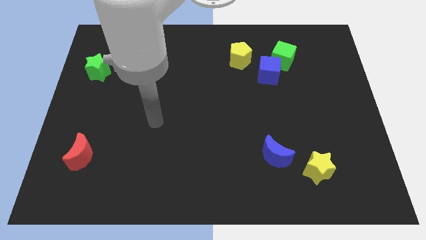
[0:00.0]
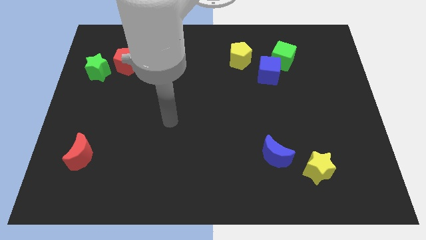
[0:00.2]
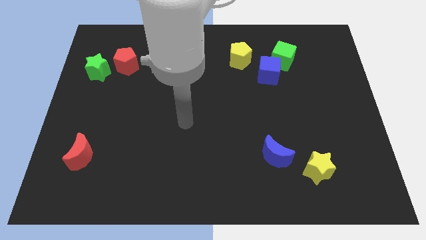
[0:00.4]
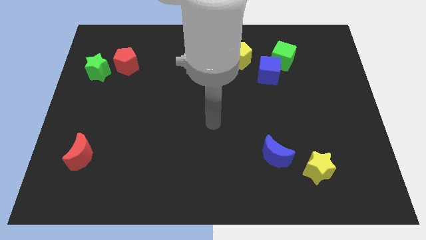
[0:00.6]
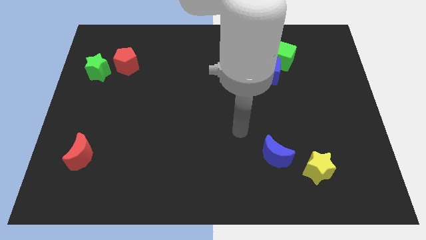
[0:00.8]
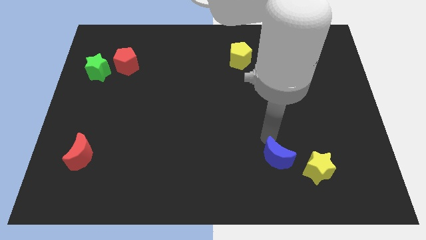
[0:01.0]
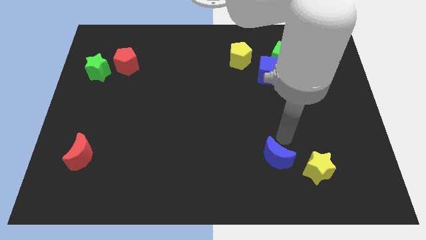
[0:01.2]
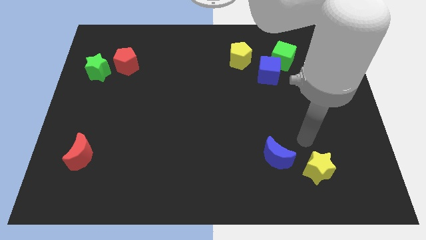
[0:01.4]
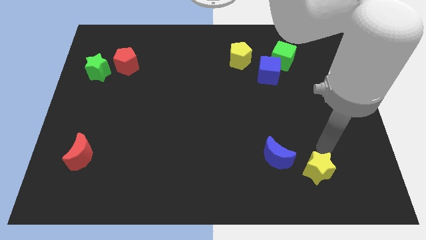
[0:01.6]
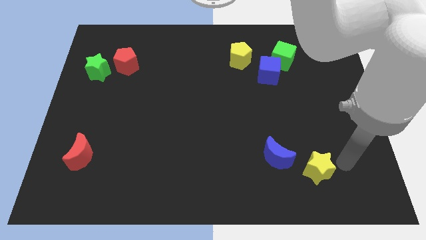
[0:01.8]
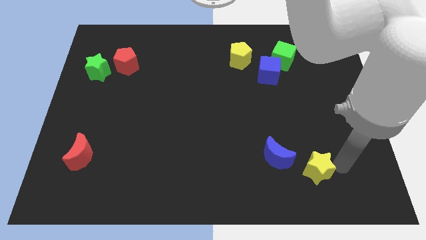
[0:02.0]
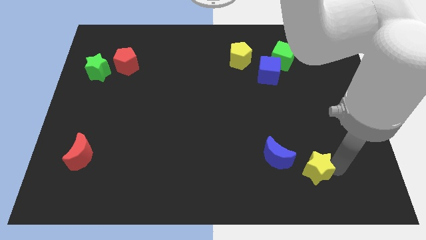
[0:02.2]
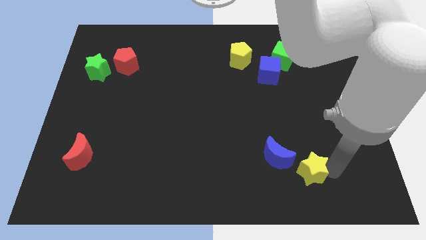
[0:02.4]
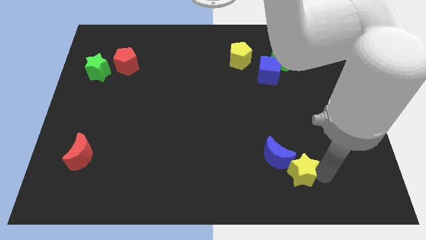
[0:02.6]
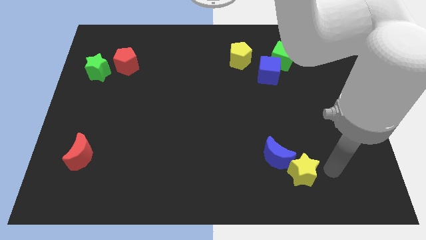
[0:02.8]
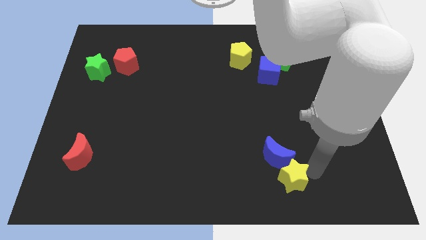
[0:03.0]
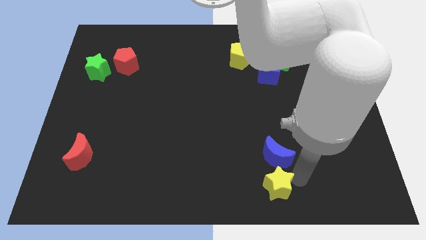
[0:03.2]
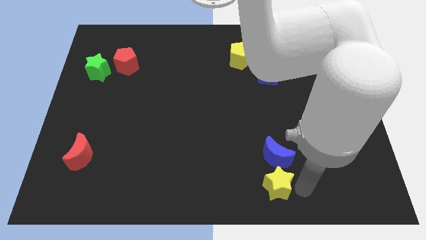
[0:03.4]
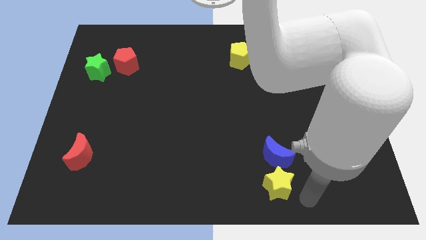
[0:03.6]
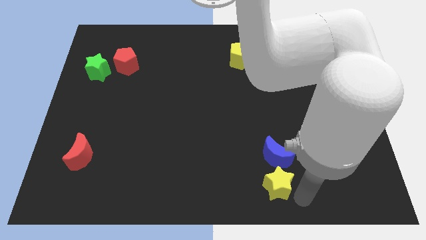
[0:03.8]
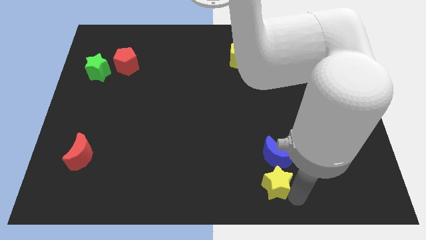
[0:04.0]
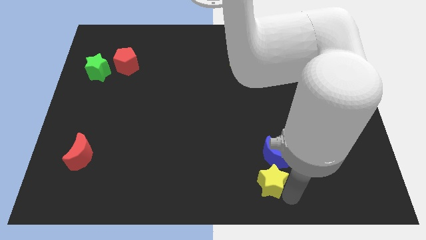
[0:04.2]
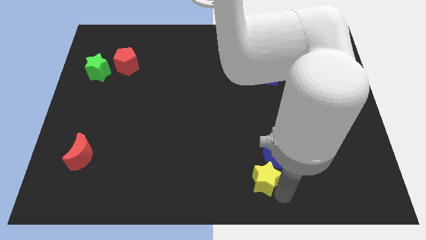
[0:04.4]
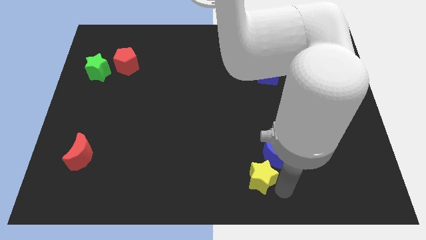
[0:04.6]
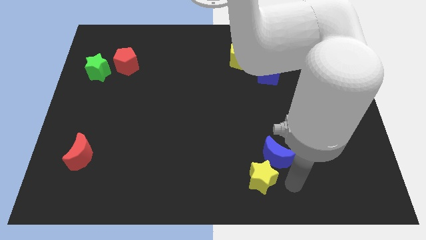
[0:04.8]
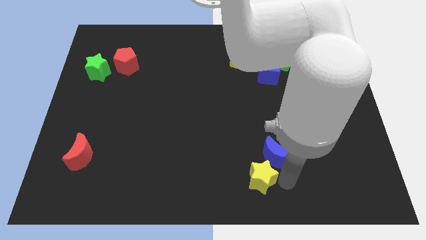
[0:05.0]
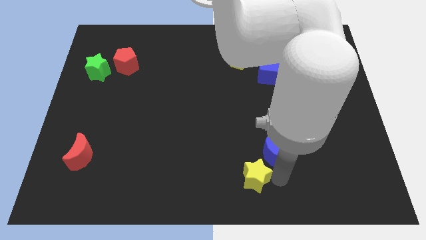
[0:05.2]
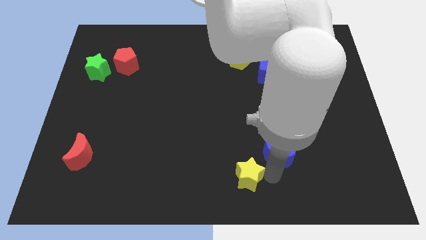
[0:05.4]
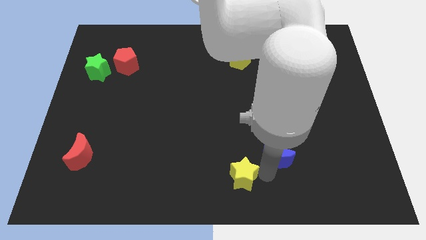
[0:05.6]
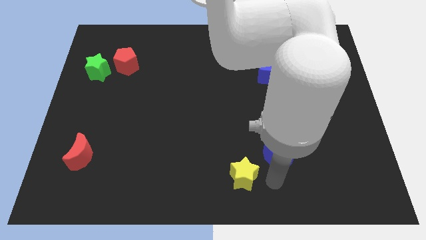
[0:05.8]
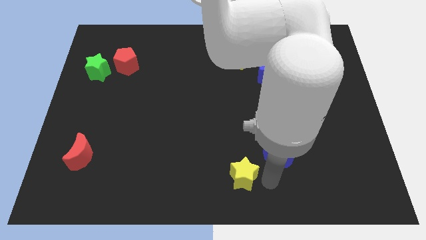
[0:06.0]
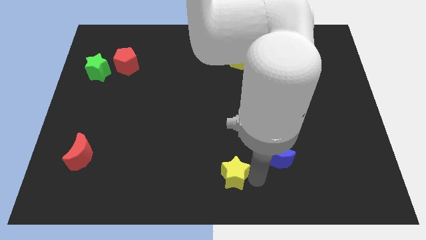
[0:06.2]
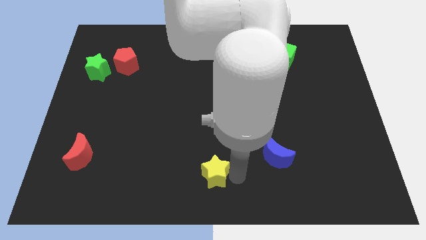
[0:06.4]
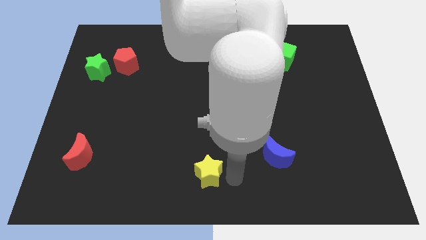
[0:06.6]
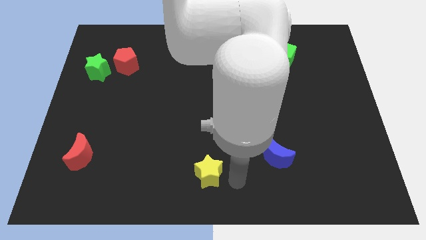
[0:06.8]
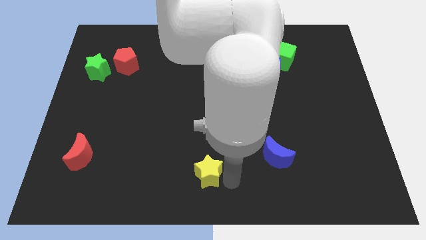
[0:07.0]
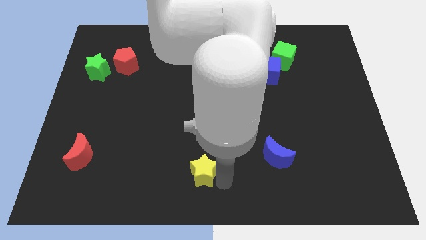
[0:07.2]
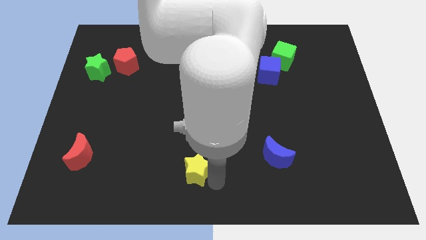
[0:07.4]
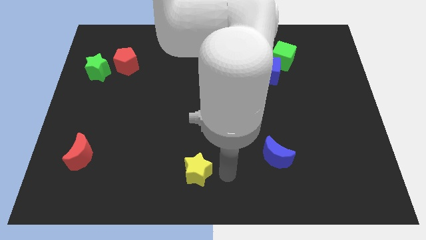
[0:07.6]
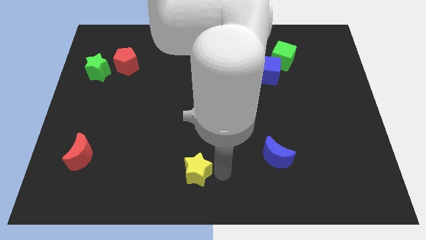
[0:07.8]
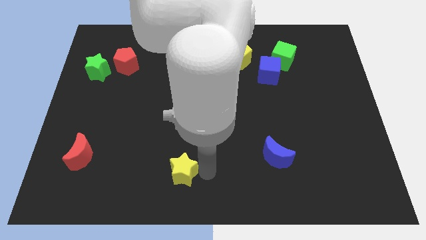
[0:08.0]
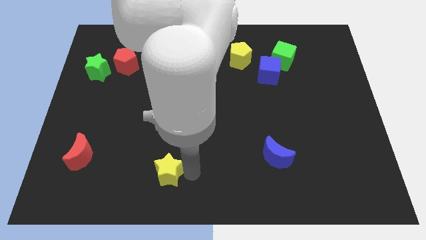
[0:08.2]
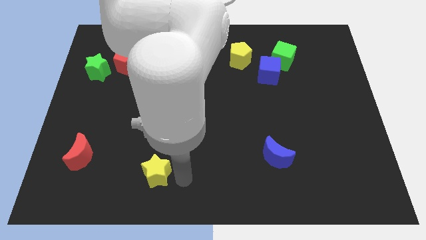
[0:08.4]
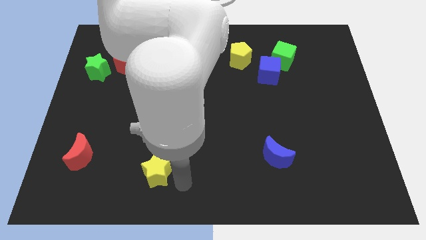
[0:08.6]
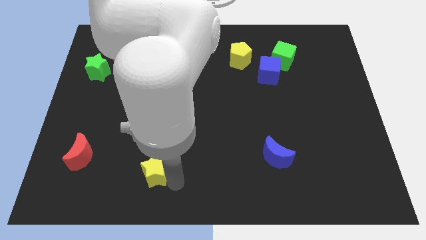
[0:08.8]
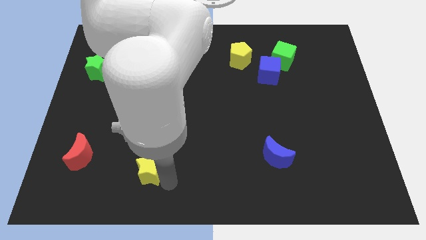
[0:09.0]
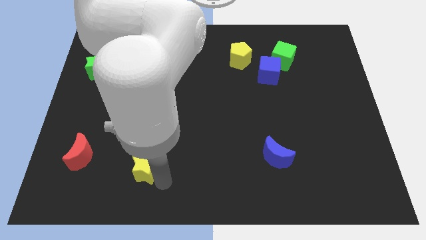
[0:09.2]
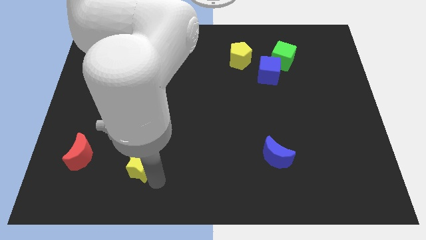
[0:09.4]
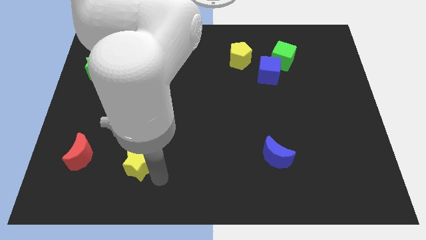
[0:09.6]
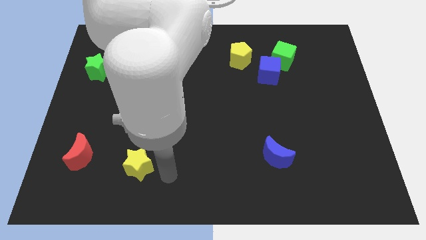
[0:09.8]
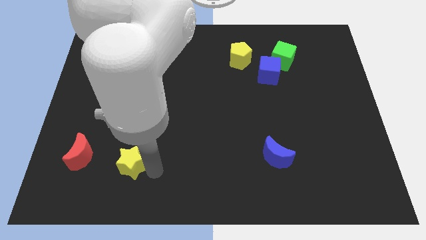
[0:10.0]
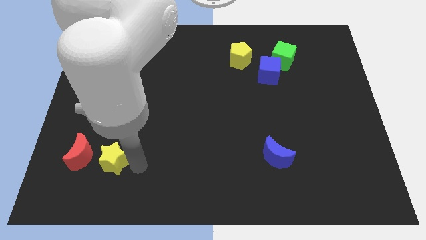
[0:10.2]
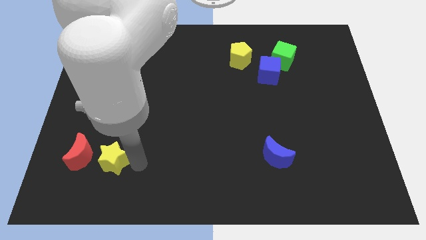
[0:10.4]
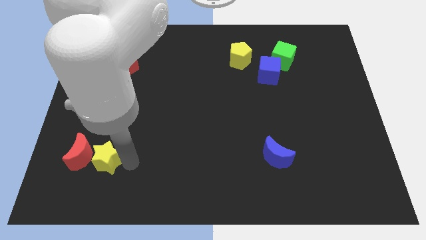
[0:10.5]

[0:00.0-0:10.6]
move the yellow star next to the red moon

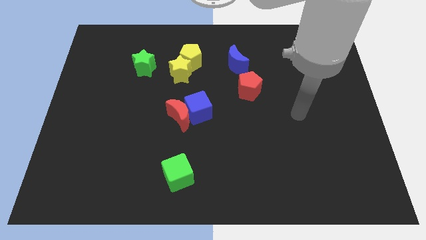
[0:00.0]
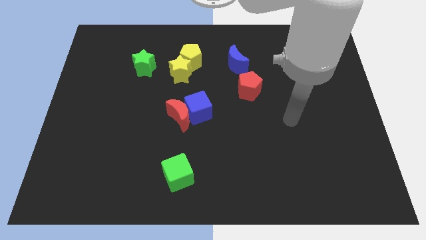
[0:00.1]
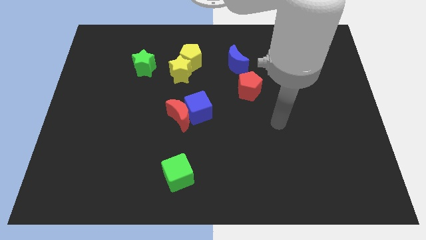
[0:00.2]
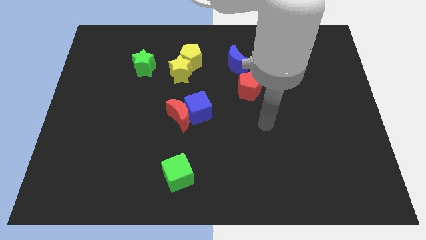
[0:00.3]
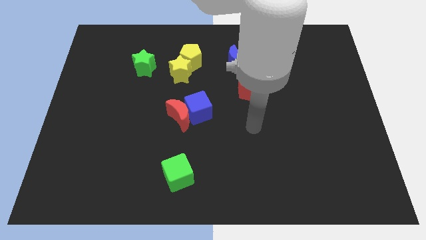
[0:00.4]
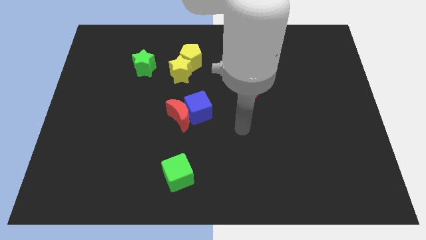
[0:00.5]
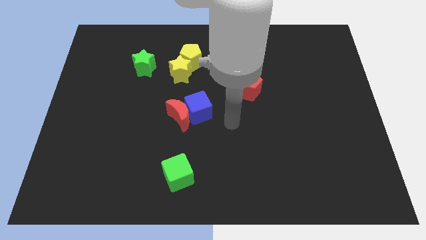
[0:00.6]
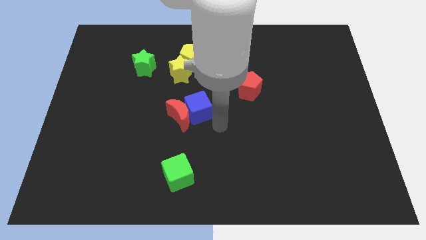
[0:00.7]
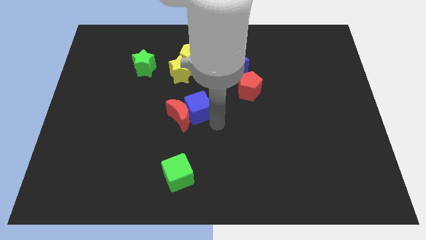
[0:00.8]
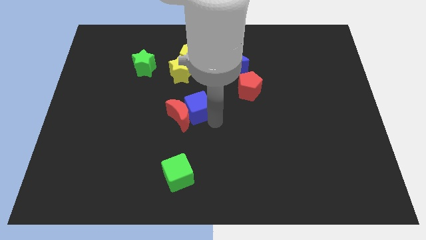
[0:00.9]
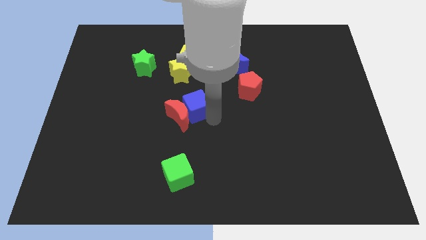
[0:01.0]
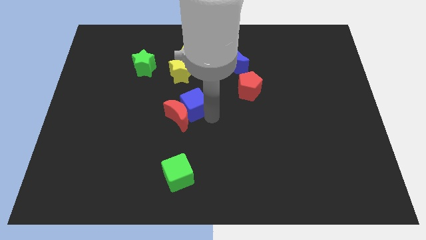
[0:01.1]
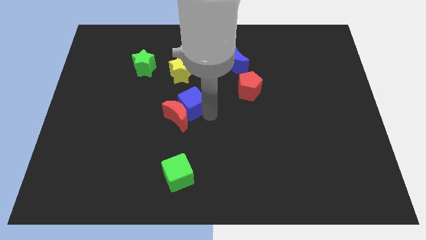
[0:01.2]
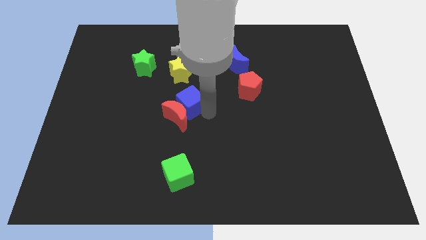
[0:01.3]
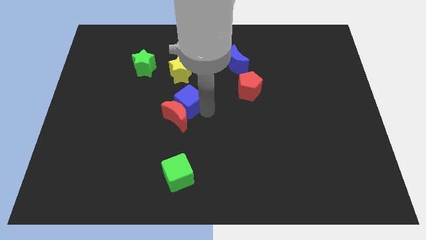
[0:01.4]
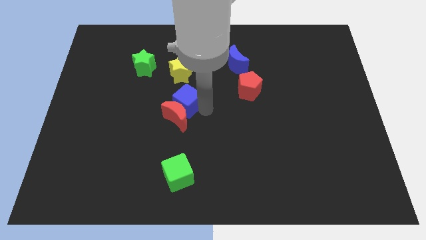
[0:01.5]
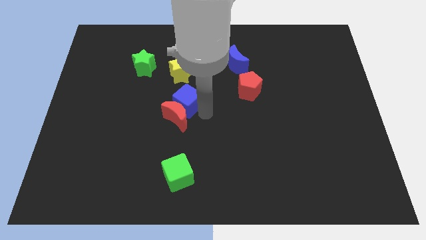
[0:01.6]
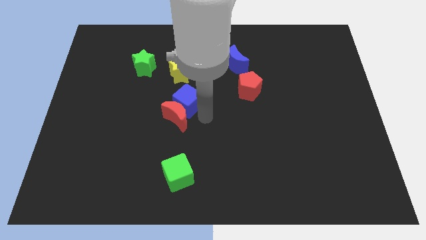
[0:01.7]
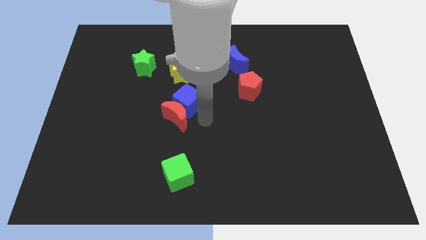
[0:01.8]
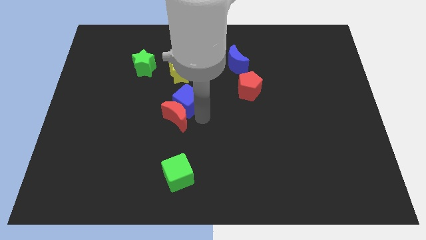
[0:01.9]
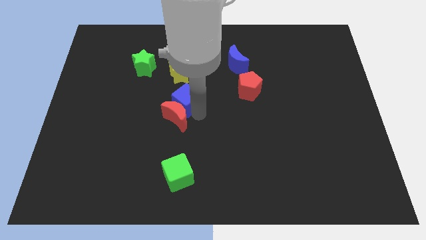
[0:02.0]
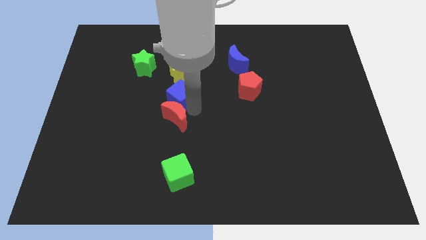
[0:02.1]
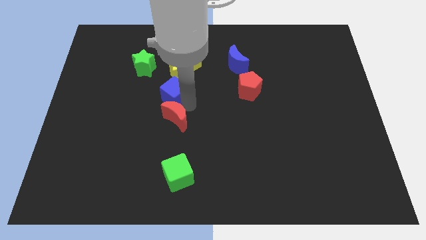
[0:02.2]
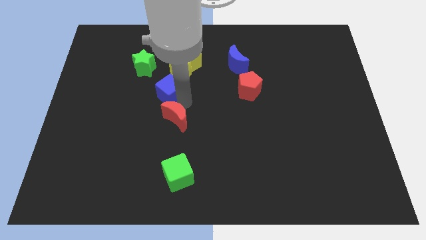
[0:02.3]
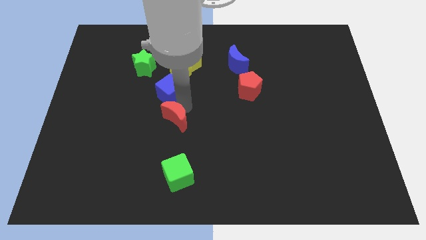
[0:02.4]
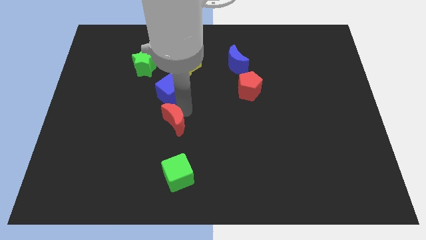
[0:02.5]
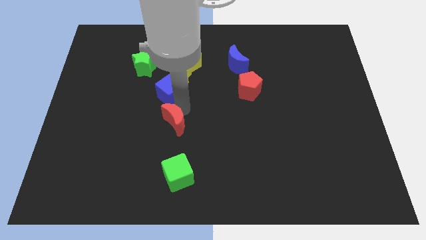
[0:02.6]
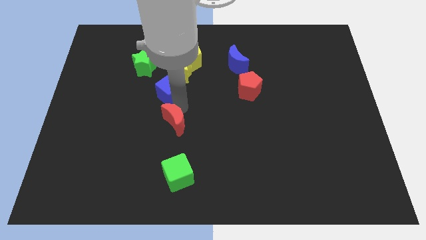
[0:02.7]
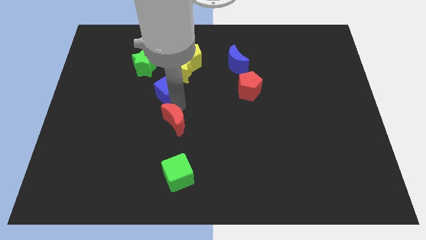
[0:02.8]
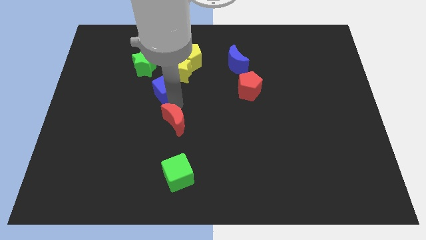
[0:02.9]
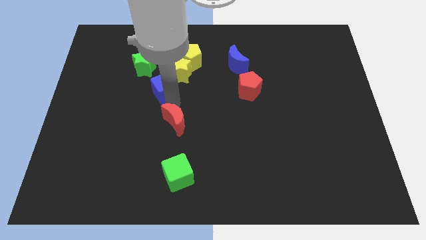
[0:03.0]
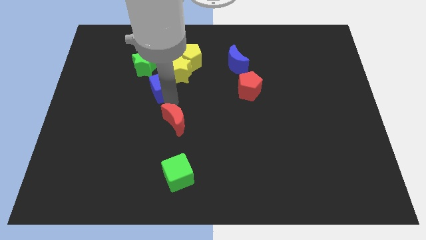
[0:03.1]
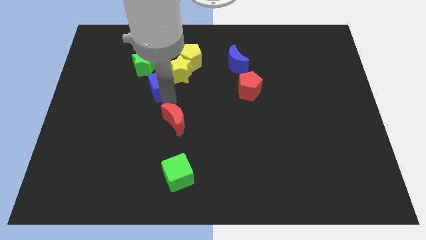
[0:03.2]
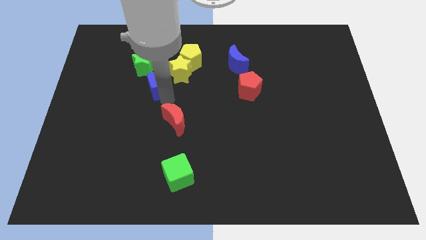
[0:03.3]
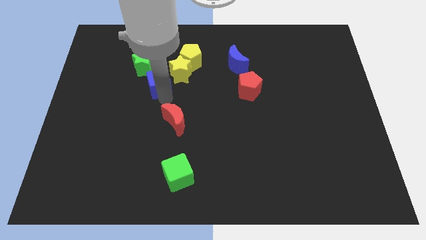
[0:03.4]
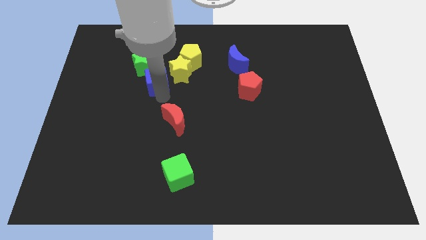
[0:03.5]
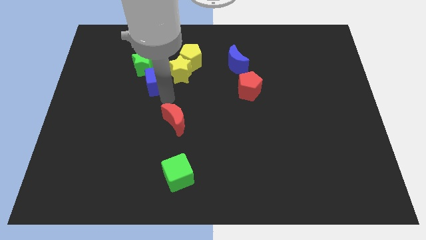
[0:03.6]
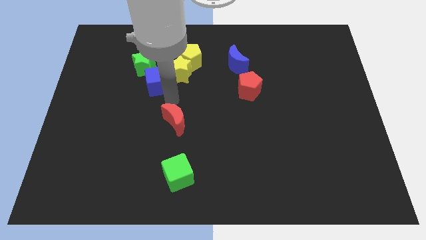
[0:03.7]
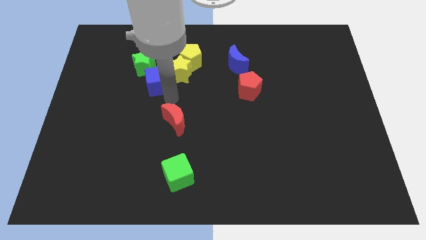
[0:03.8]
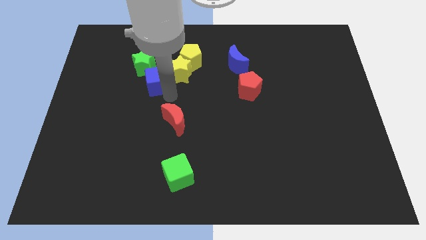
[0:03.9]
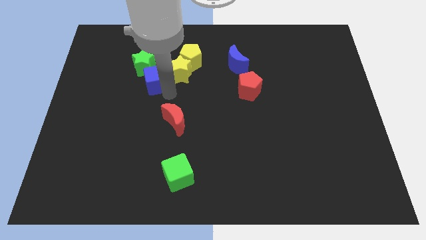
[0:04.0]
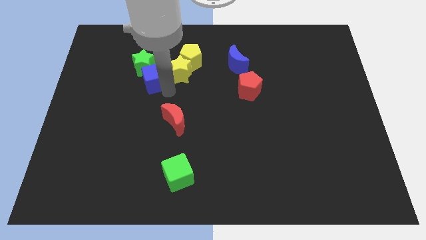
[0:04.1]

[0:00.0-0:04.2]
push the blue cube next to the green star
